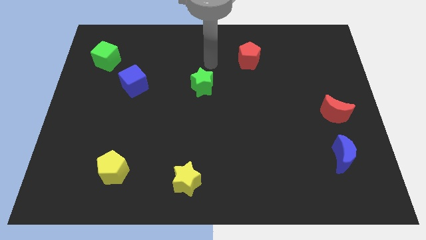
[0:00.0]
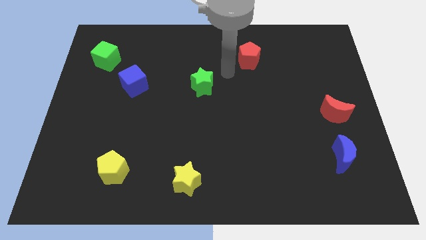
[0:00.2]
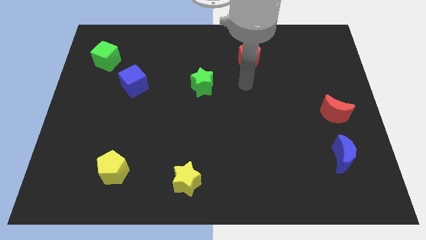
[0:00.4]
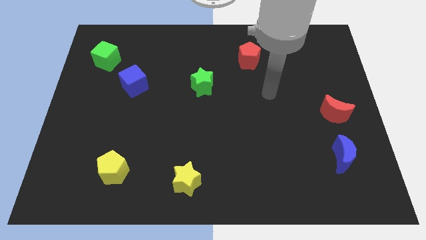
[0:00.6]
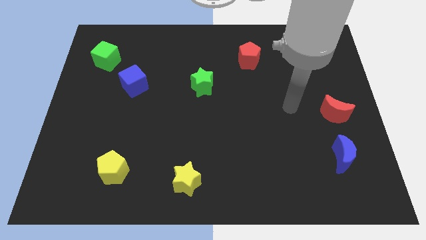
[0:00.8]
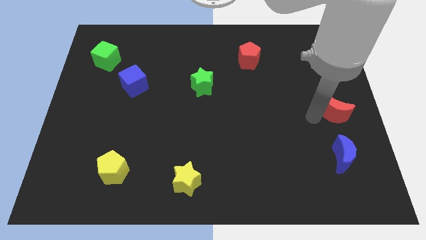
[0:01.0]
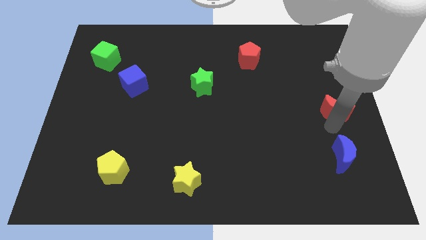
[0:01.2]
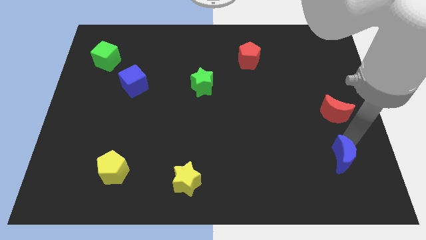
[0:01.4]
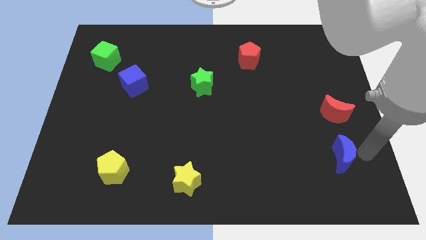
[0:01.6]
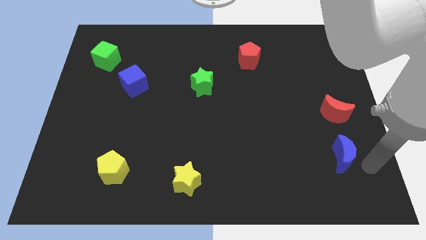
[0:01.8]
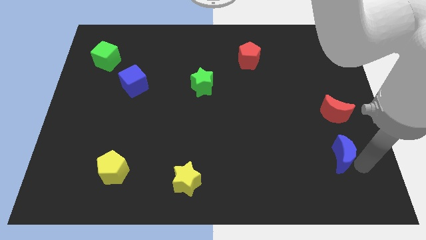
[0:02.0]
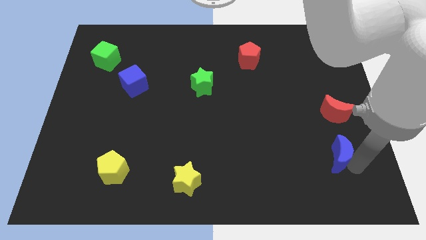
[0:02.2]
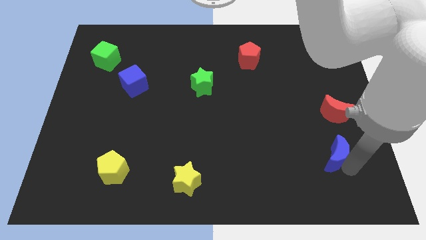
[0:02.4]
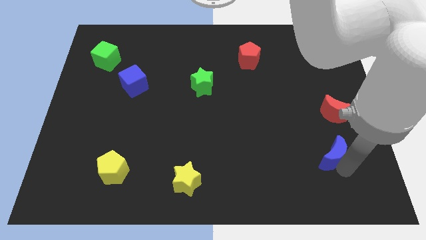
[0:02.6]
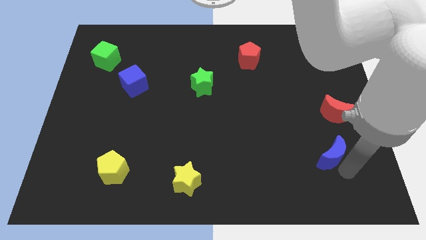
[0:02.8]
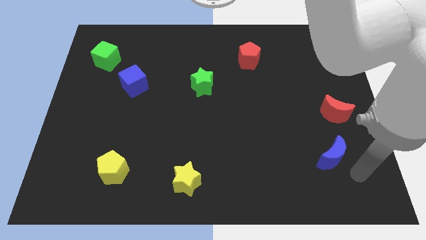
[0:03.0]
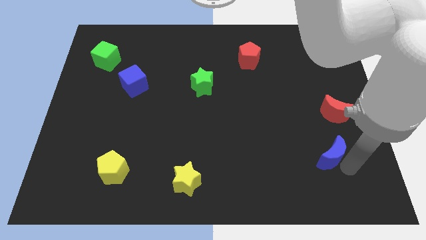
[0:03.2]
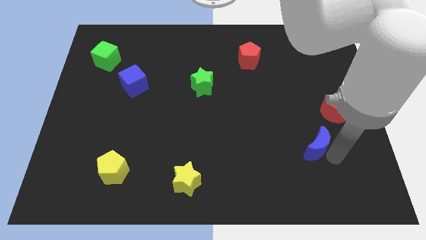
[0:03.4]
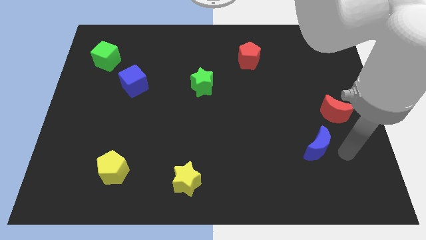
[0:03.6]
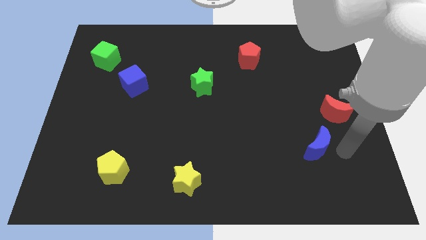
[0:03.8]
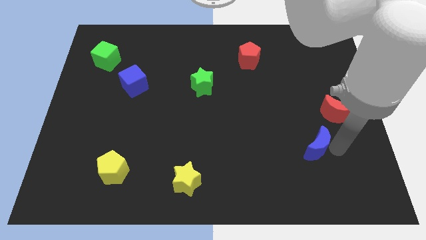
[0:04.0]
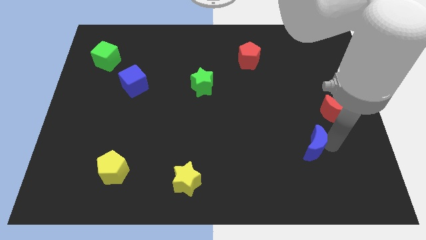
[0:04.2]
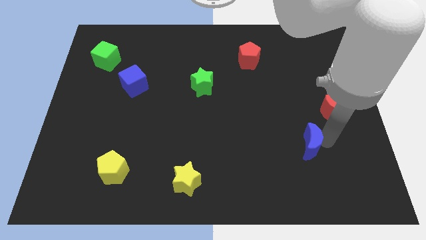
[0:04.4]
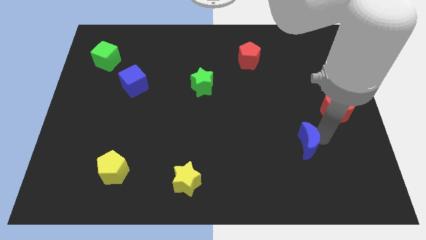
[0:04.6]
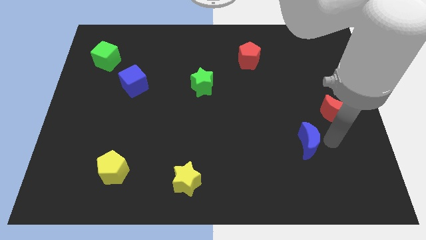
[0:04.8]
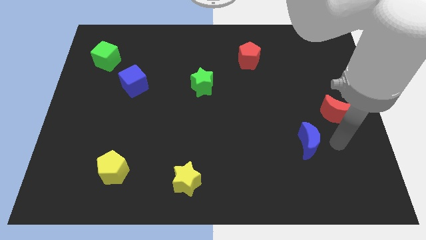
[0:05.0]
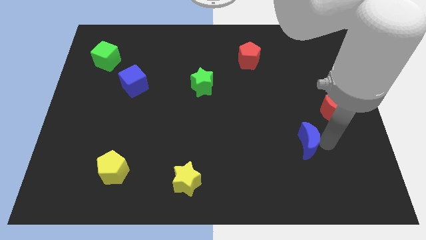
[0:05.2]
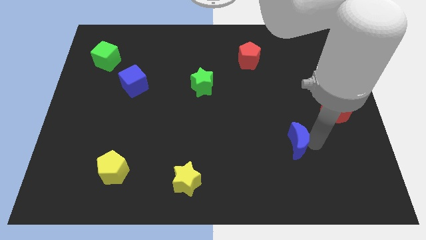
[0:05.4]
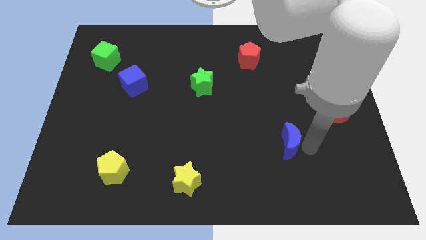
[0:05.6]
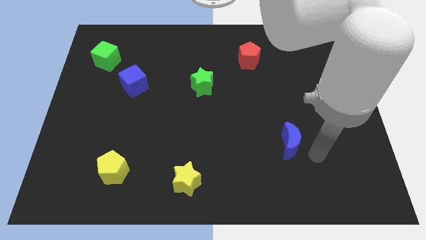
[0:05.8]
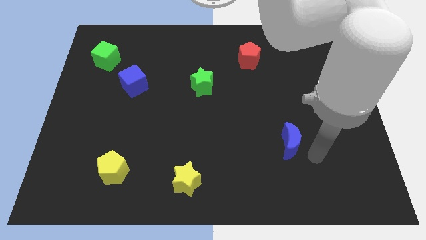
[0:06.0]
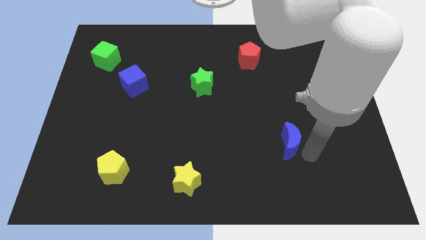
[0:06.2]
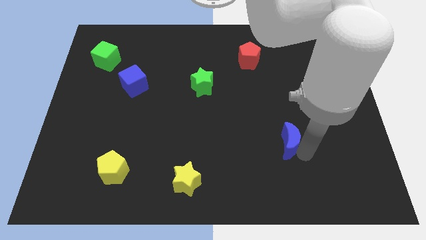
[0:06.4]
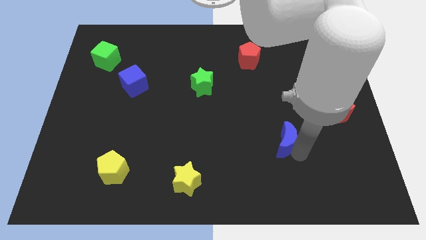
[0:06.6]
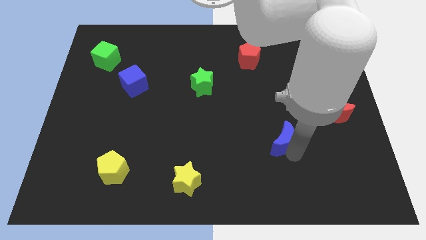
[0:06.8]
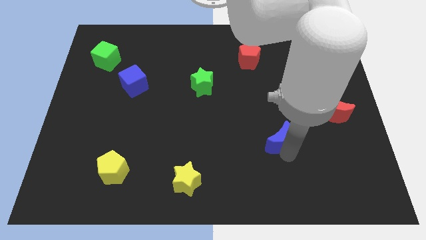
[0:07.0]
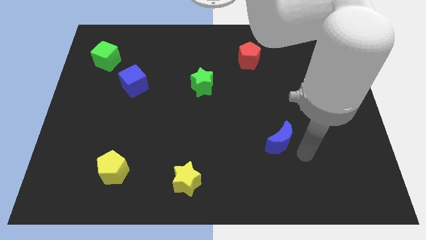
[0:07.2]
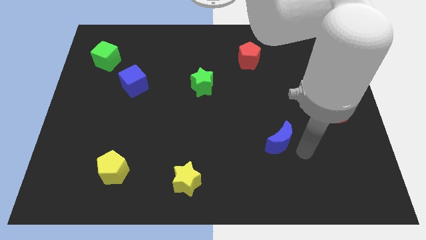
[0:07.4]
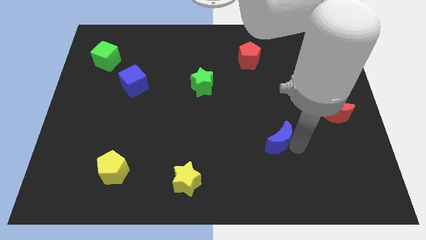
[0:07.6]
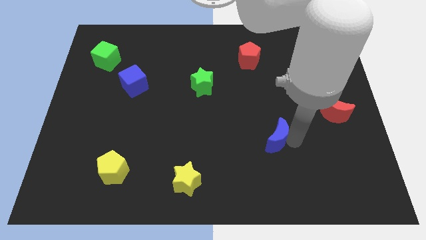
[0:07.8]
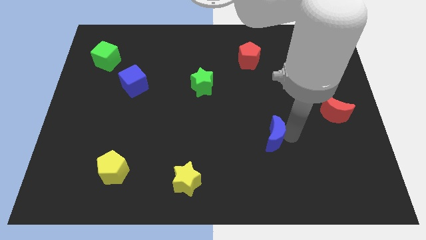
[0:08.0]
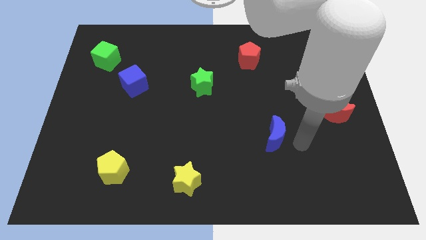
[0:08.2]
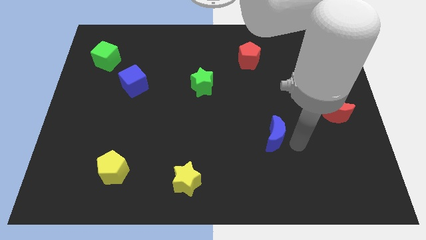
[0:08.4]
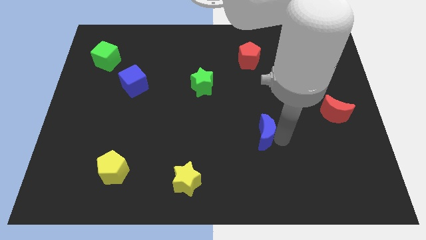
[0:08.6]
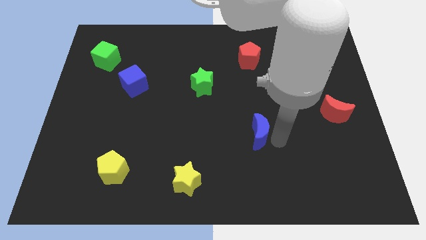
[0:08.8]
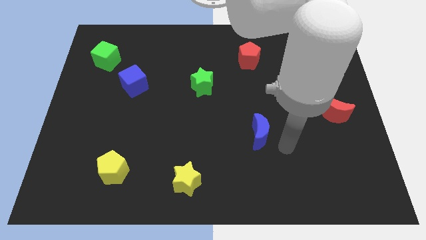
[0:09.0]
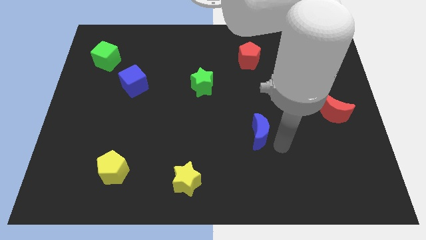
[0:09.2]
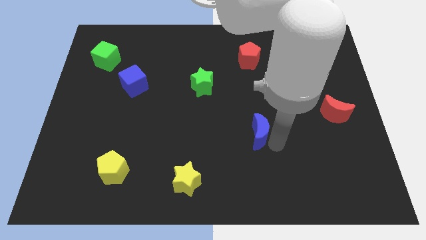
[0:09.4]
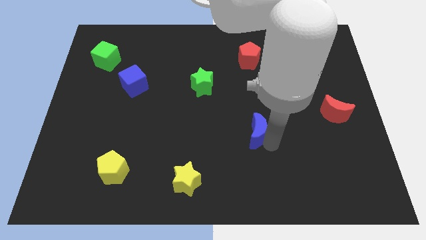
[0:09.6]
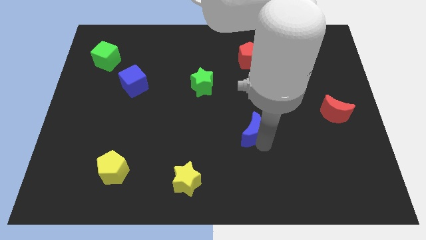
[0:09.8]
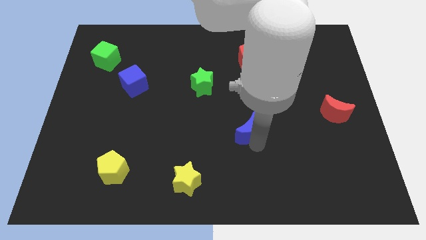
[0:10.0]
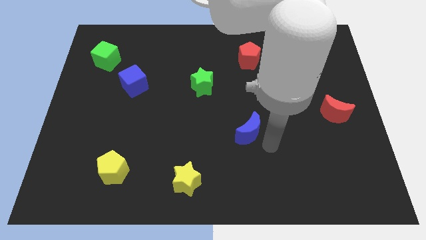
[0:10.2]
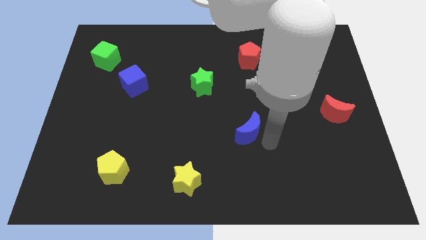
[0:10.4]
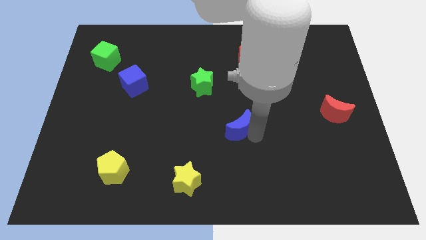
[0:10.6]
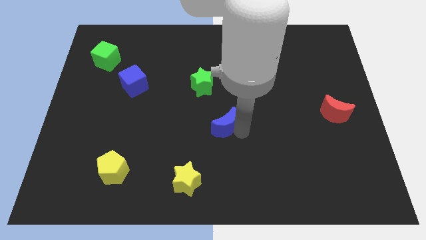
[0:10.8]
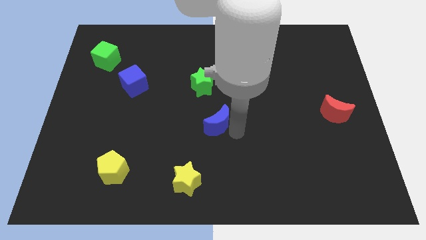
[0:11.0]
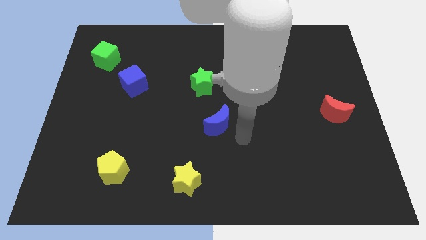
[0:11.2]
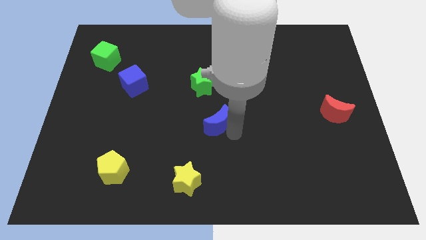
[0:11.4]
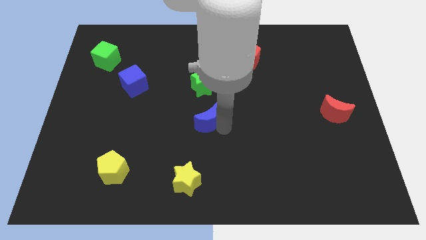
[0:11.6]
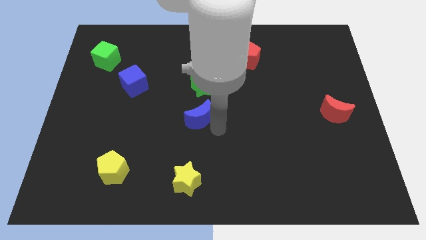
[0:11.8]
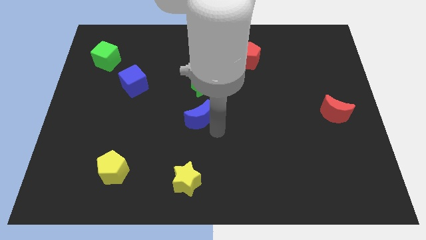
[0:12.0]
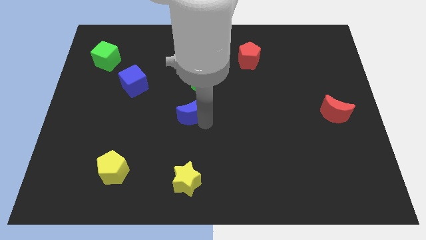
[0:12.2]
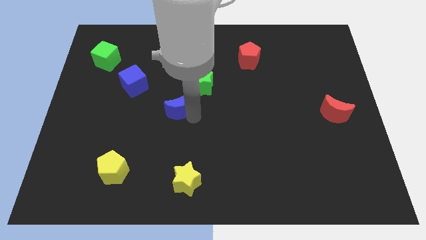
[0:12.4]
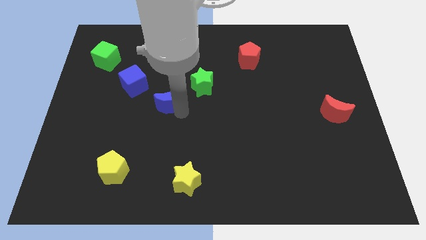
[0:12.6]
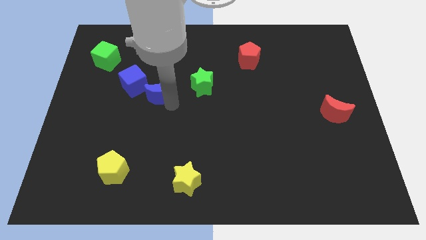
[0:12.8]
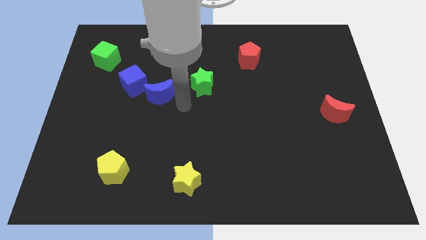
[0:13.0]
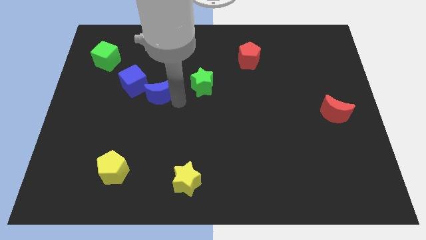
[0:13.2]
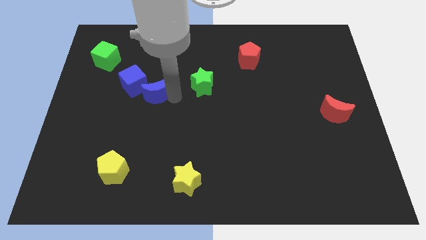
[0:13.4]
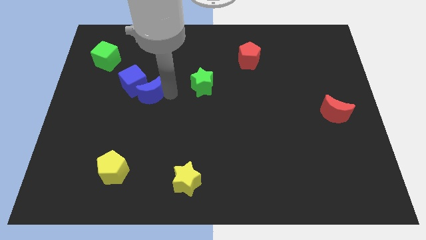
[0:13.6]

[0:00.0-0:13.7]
move the blue moon next to the blue cube
